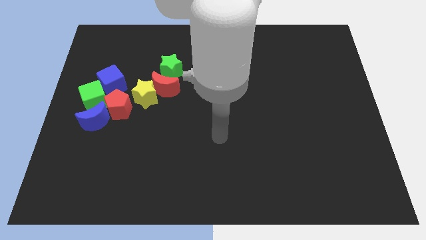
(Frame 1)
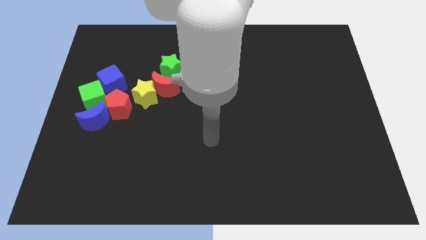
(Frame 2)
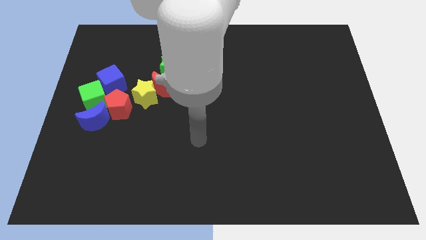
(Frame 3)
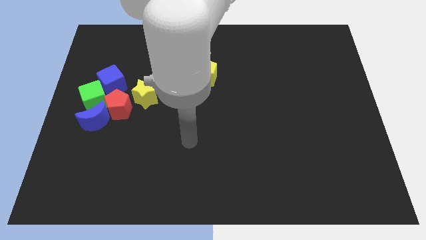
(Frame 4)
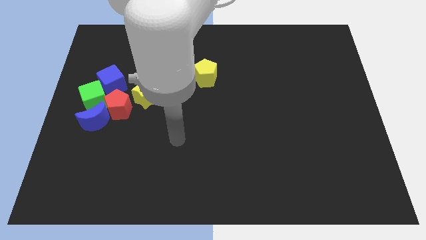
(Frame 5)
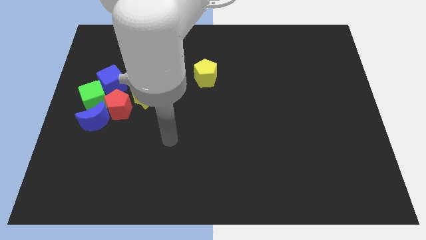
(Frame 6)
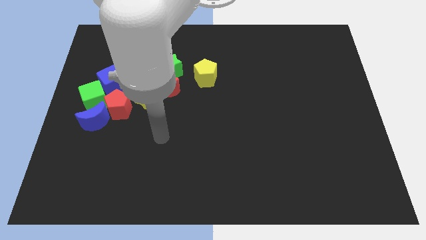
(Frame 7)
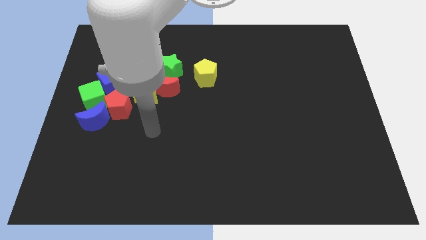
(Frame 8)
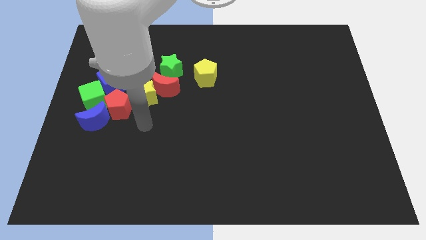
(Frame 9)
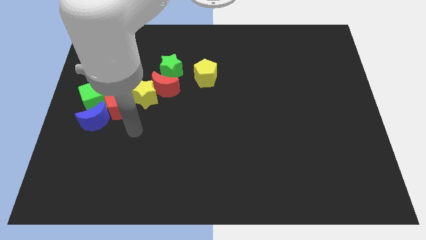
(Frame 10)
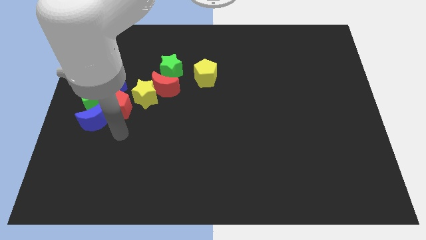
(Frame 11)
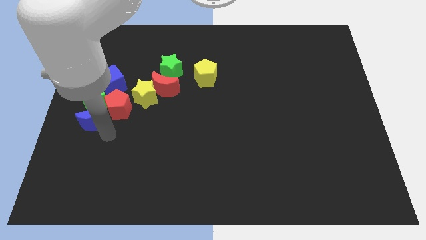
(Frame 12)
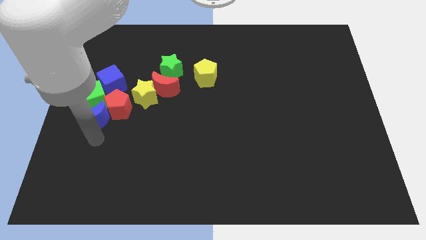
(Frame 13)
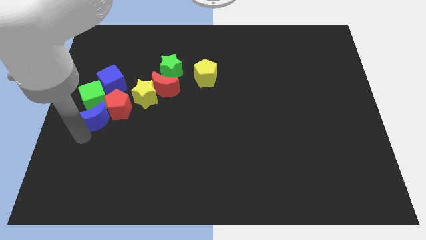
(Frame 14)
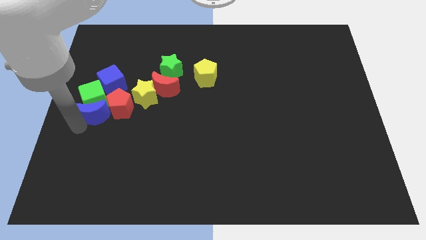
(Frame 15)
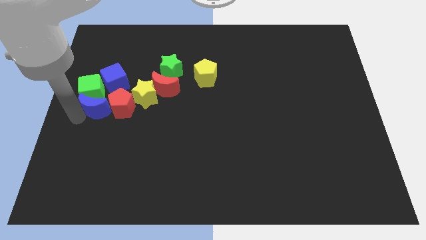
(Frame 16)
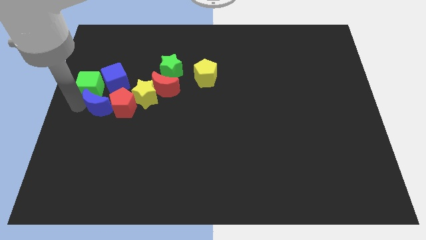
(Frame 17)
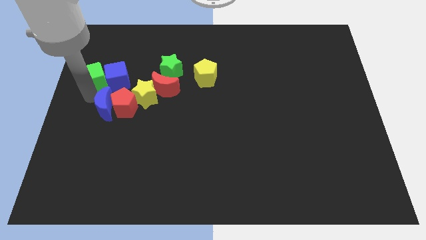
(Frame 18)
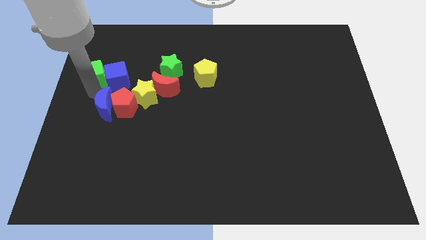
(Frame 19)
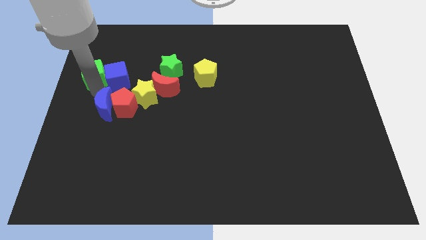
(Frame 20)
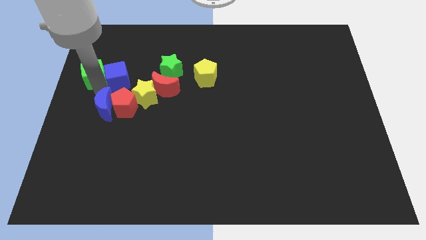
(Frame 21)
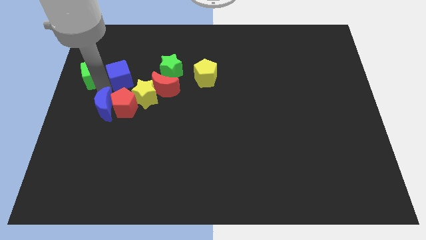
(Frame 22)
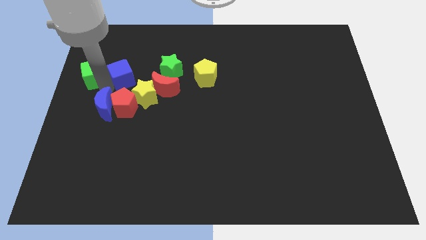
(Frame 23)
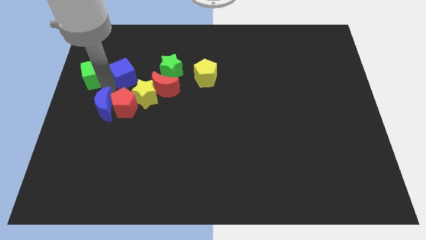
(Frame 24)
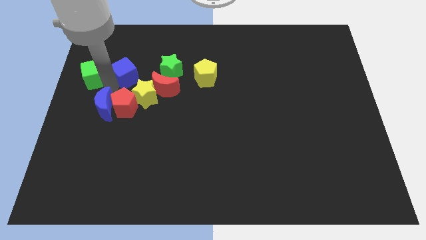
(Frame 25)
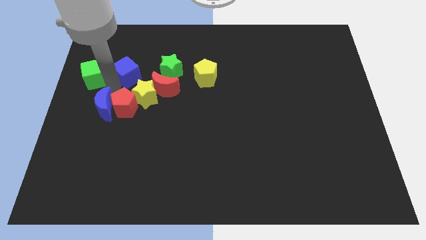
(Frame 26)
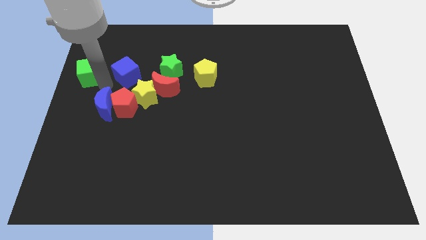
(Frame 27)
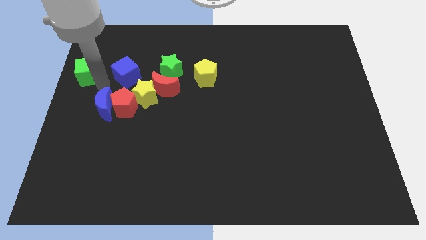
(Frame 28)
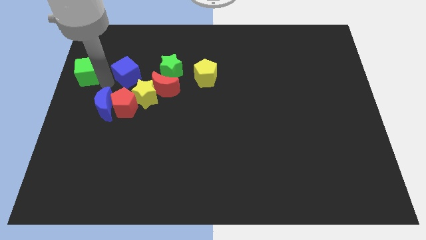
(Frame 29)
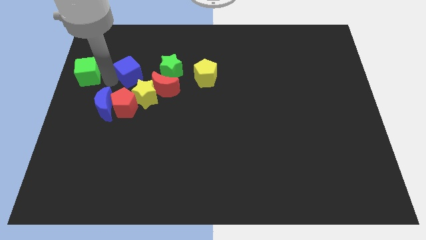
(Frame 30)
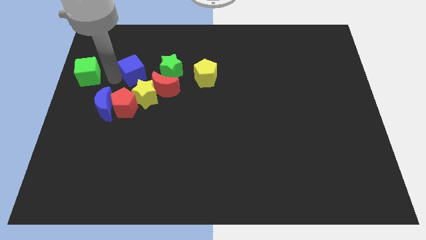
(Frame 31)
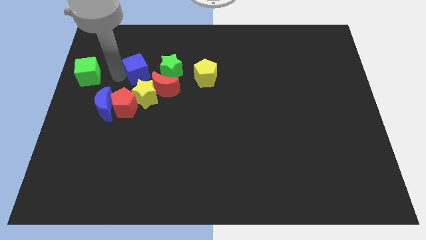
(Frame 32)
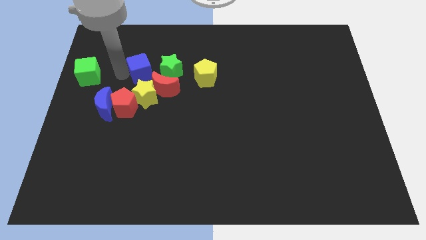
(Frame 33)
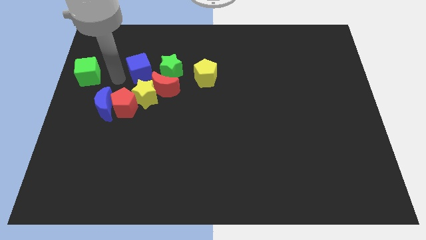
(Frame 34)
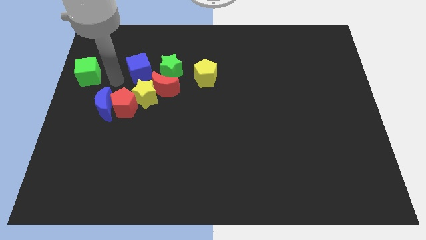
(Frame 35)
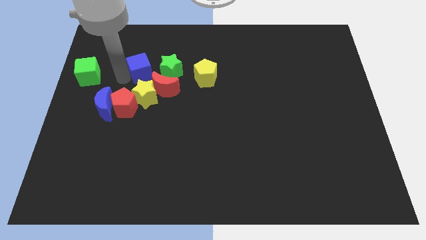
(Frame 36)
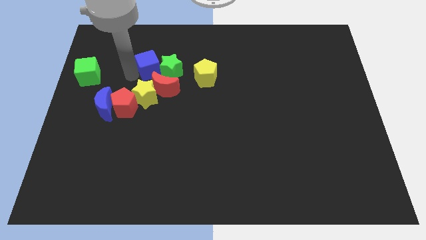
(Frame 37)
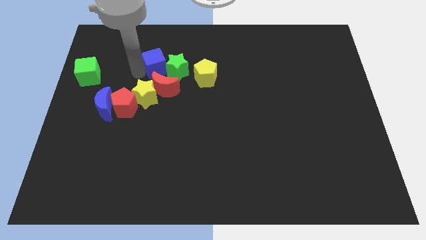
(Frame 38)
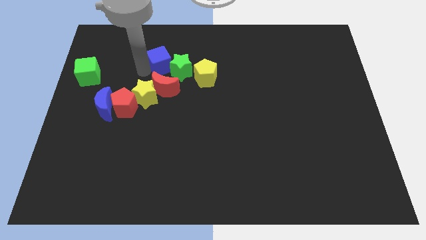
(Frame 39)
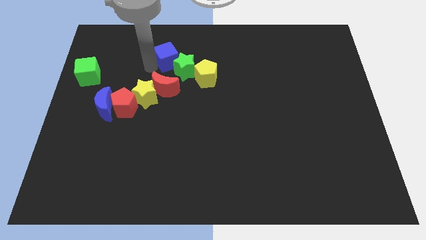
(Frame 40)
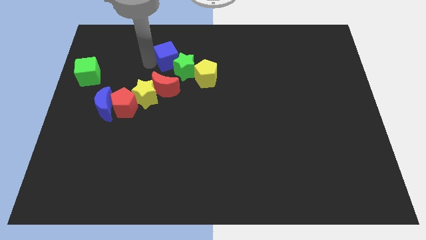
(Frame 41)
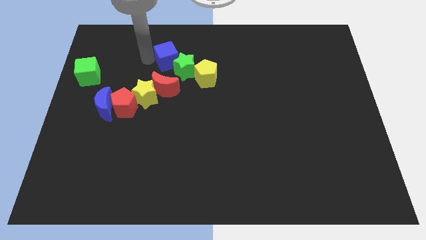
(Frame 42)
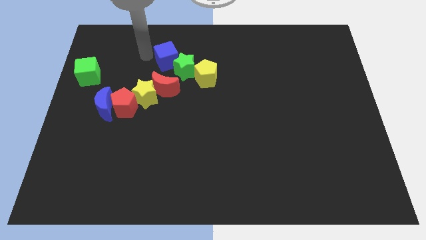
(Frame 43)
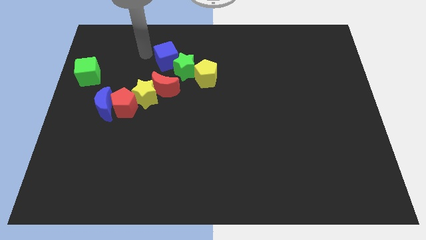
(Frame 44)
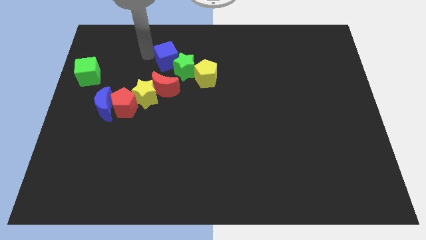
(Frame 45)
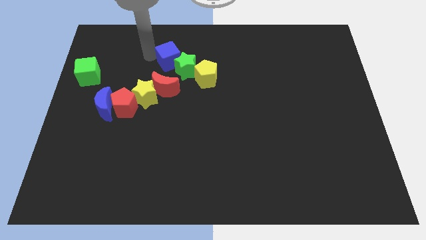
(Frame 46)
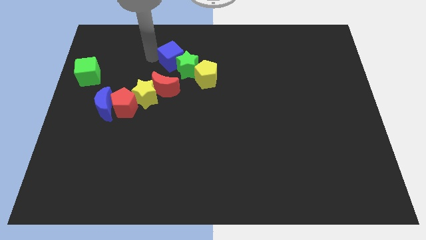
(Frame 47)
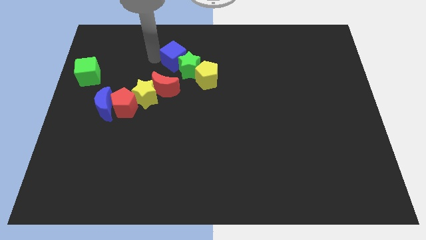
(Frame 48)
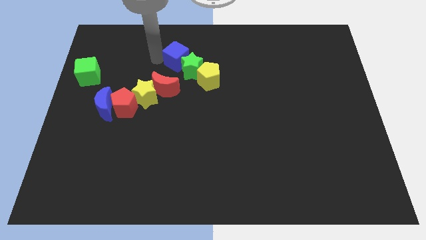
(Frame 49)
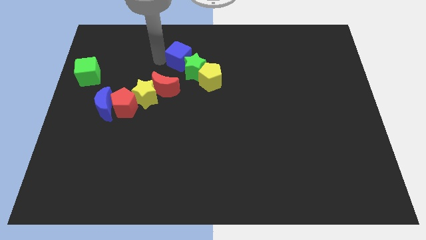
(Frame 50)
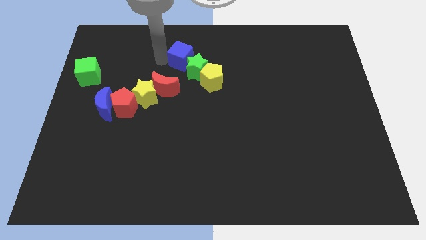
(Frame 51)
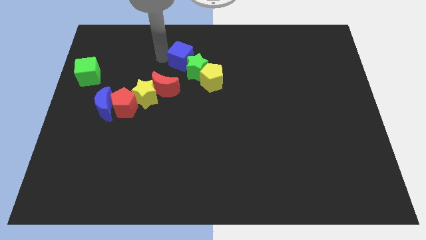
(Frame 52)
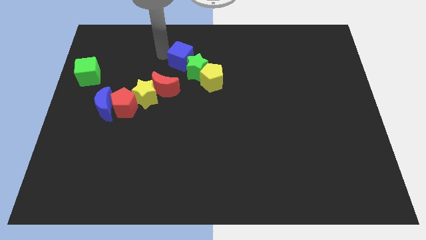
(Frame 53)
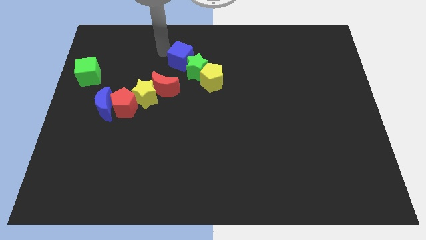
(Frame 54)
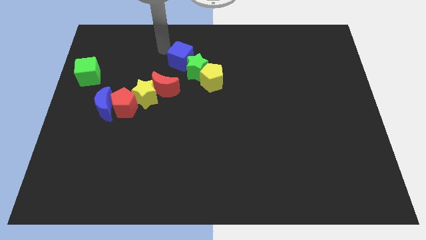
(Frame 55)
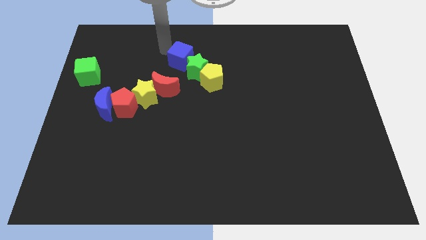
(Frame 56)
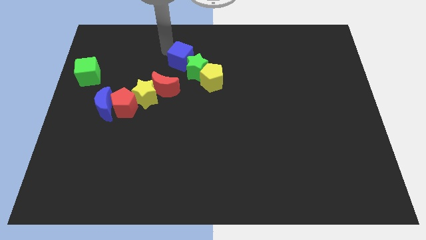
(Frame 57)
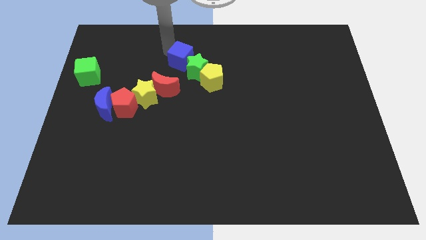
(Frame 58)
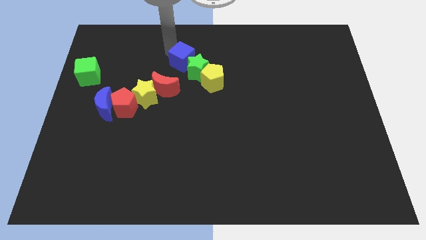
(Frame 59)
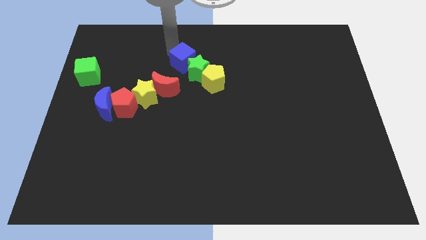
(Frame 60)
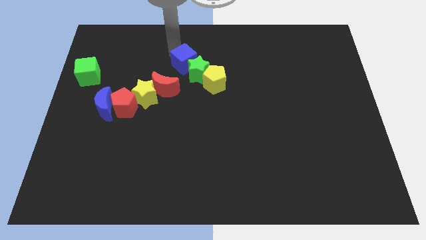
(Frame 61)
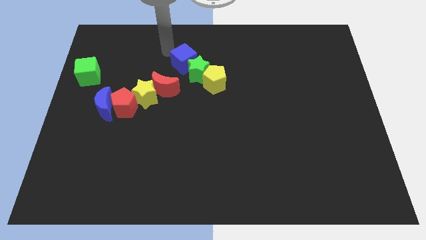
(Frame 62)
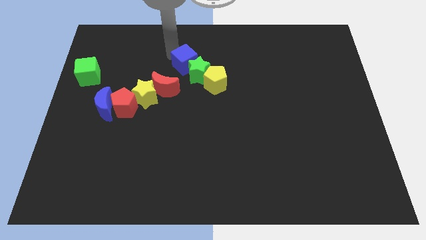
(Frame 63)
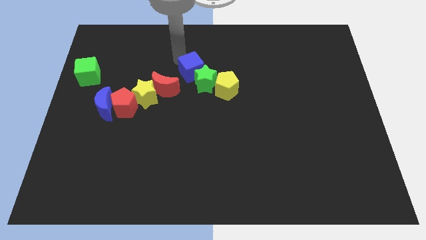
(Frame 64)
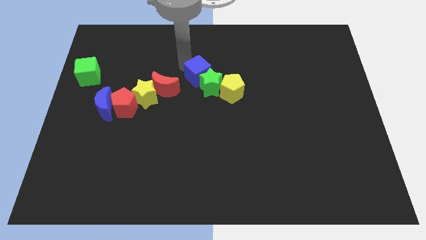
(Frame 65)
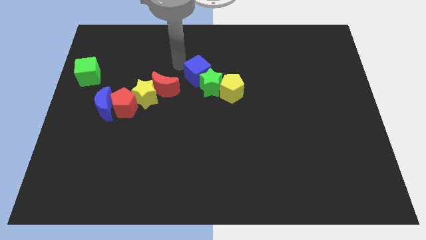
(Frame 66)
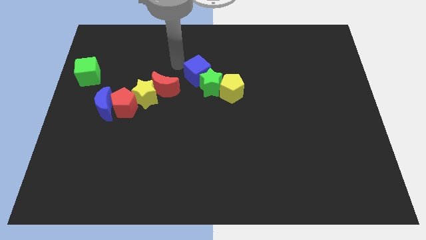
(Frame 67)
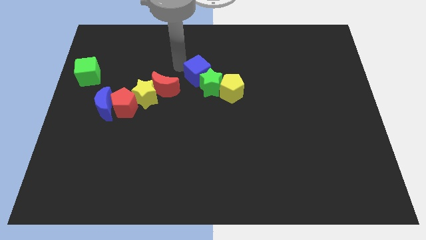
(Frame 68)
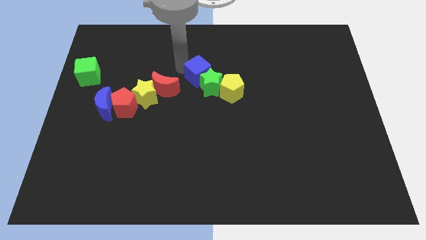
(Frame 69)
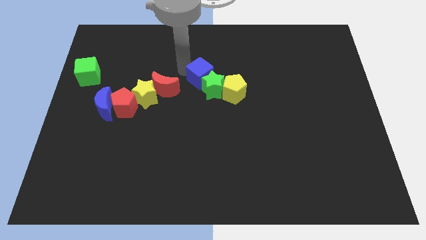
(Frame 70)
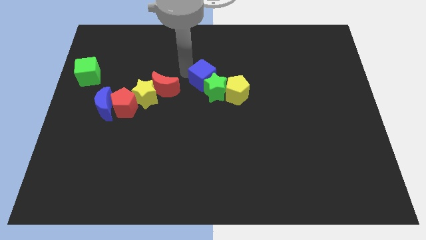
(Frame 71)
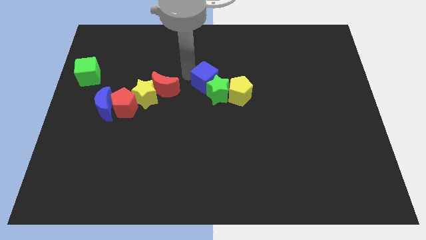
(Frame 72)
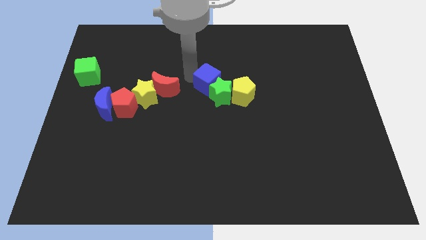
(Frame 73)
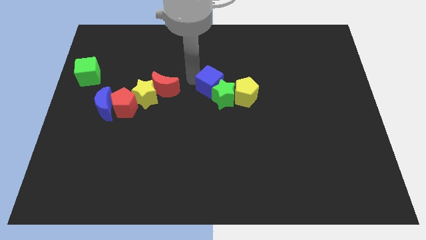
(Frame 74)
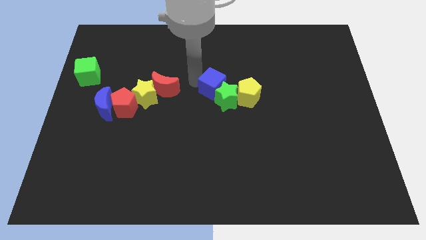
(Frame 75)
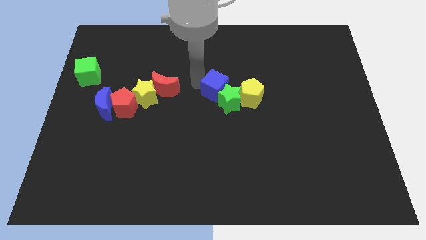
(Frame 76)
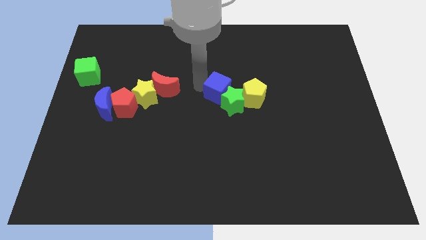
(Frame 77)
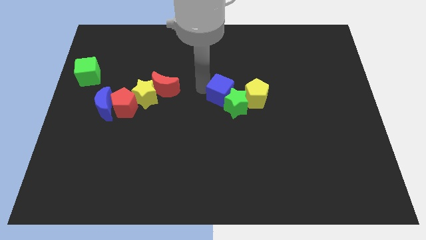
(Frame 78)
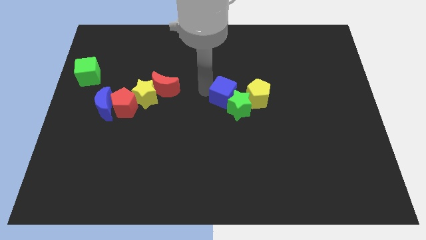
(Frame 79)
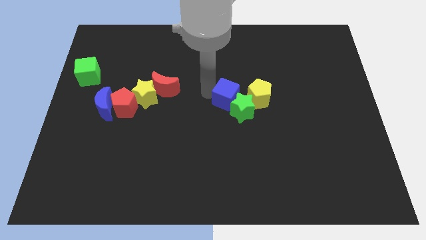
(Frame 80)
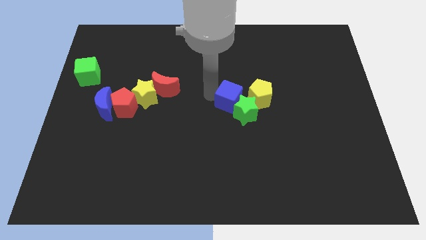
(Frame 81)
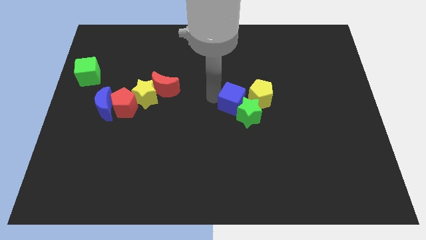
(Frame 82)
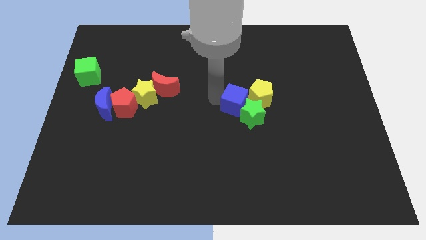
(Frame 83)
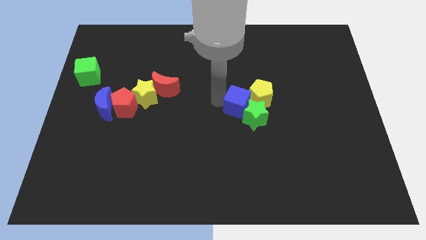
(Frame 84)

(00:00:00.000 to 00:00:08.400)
push the blue cube close to the yellow pentagon
